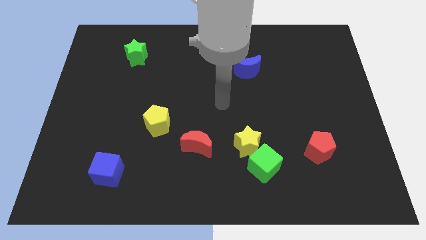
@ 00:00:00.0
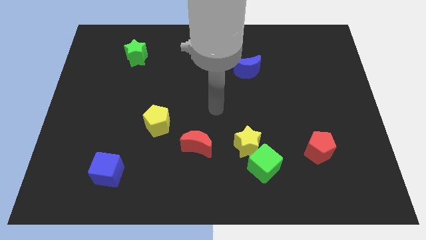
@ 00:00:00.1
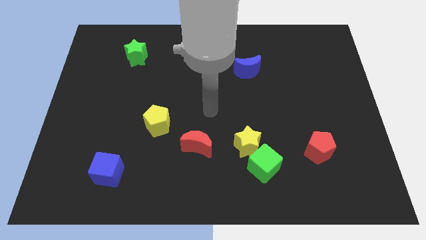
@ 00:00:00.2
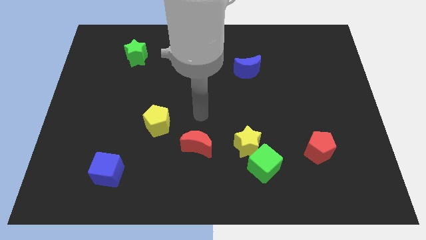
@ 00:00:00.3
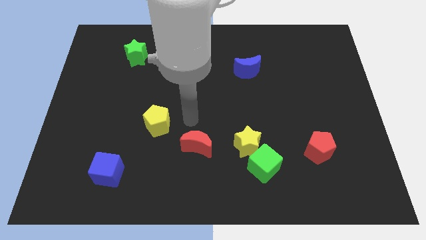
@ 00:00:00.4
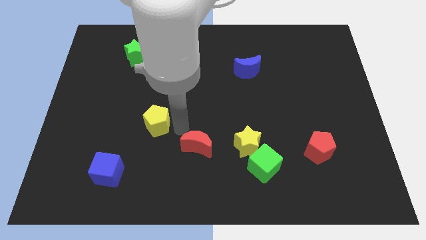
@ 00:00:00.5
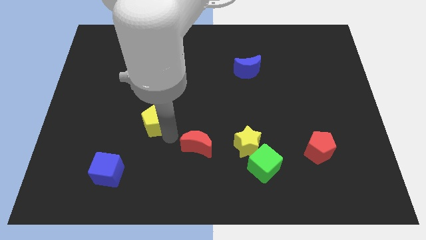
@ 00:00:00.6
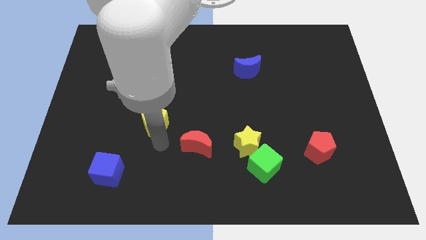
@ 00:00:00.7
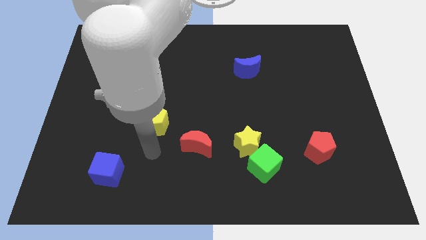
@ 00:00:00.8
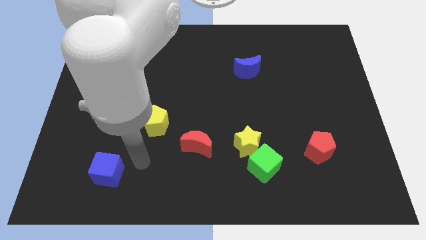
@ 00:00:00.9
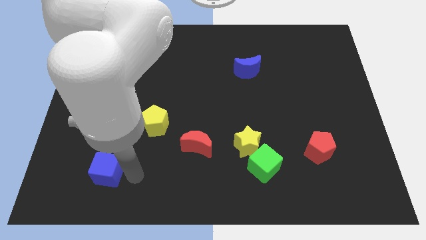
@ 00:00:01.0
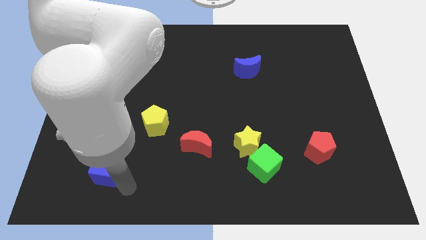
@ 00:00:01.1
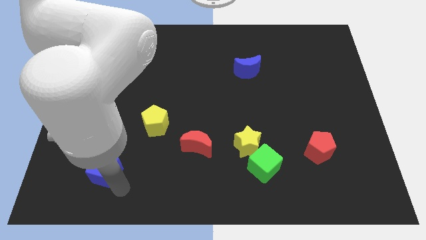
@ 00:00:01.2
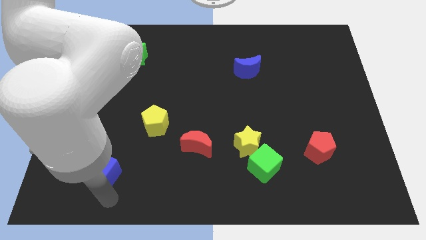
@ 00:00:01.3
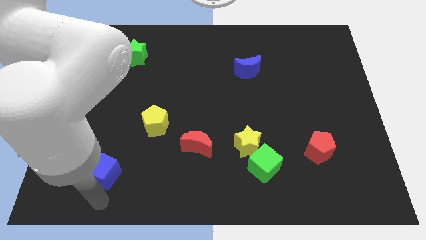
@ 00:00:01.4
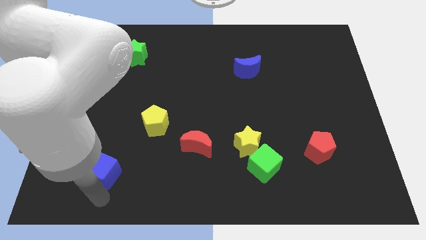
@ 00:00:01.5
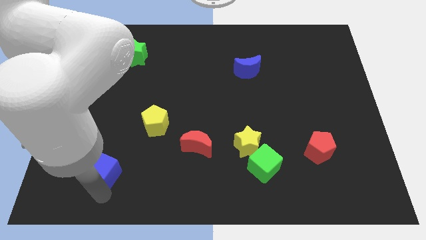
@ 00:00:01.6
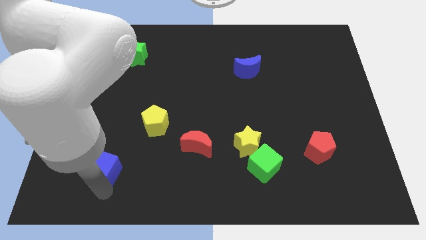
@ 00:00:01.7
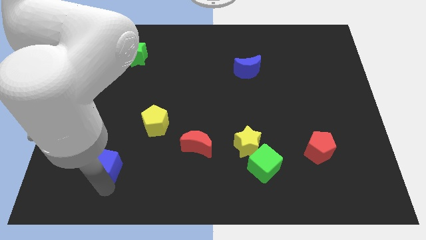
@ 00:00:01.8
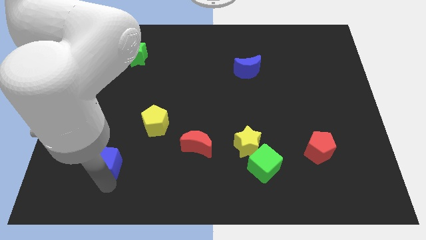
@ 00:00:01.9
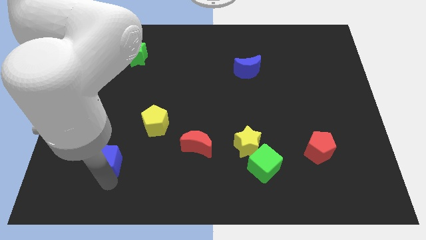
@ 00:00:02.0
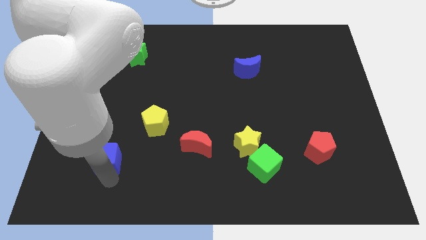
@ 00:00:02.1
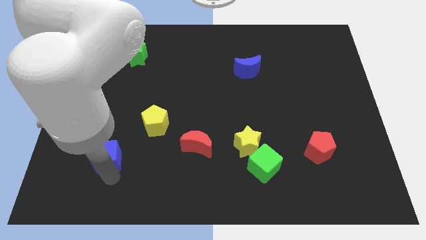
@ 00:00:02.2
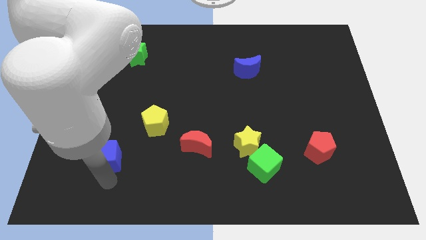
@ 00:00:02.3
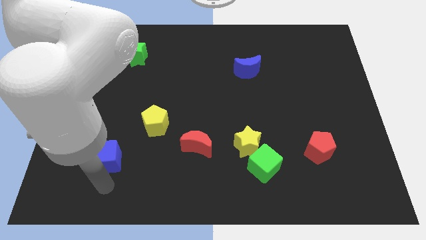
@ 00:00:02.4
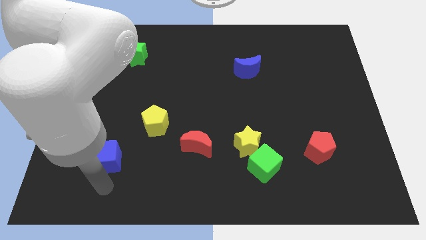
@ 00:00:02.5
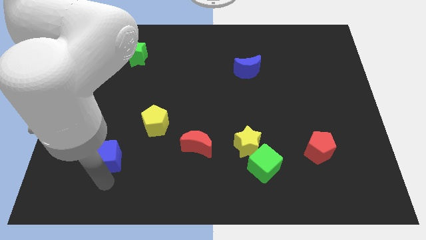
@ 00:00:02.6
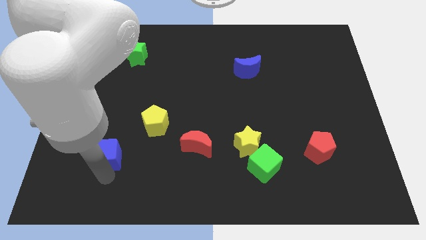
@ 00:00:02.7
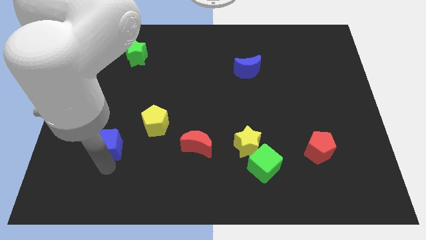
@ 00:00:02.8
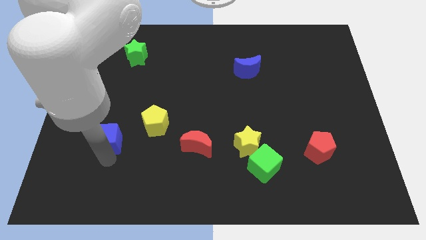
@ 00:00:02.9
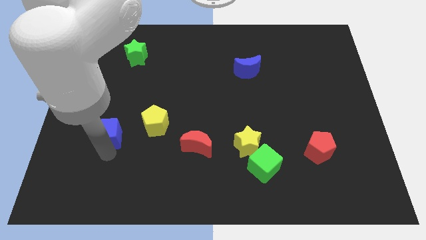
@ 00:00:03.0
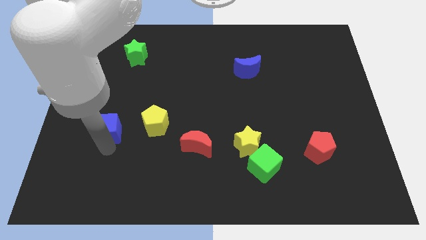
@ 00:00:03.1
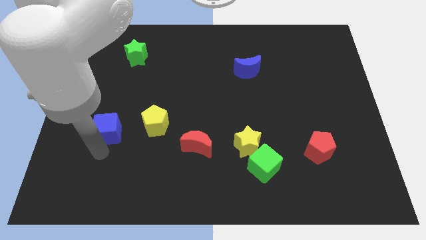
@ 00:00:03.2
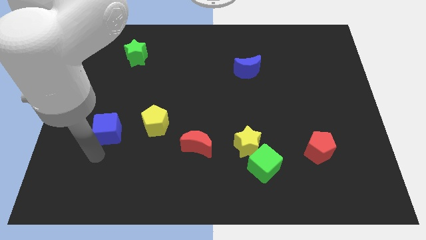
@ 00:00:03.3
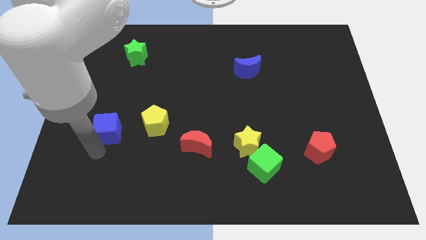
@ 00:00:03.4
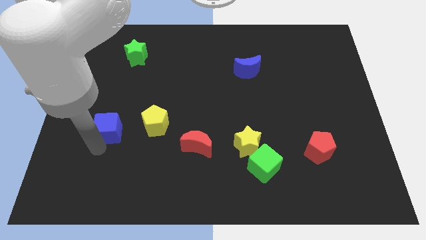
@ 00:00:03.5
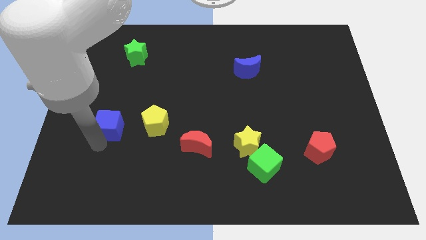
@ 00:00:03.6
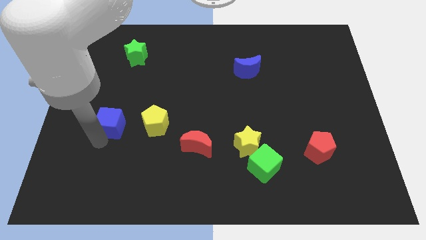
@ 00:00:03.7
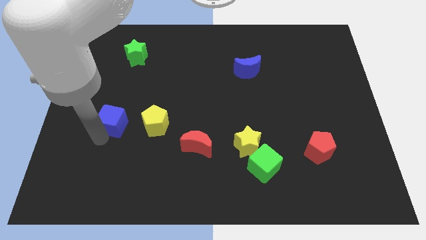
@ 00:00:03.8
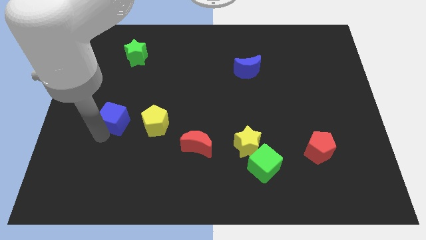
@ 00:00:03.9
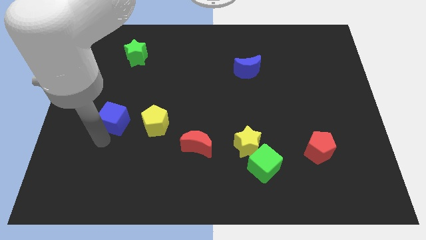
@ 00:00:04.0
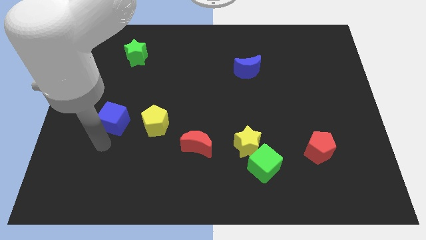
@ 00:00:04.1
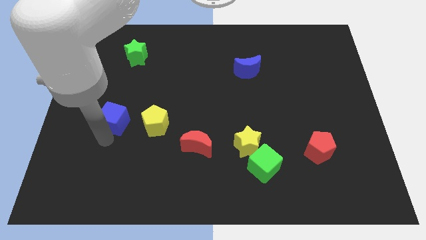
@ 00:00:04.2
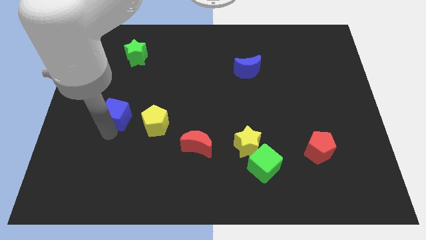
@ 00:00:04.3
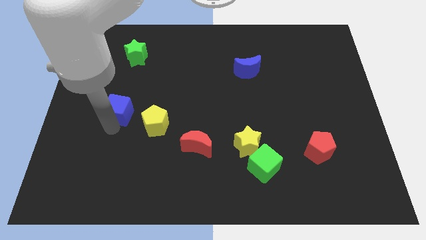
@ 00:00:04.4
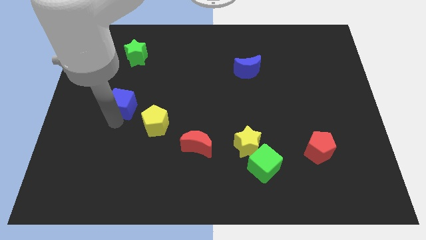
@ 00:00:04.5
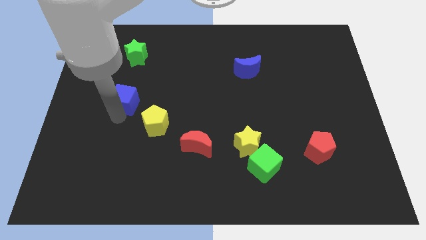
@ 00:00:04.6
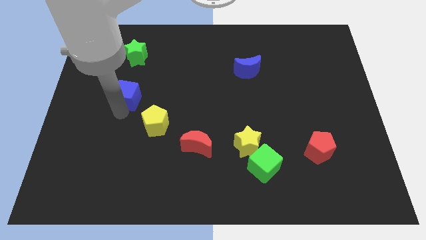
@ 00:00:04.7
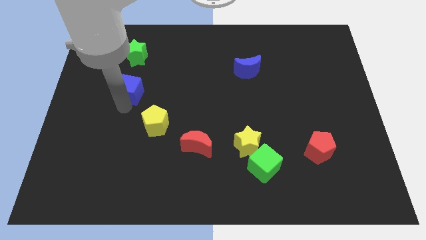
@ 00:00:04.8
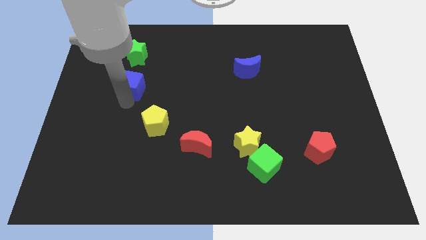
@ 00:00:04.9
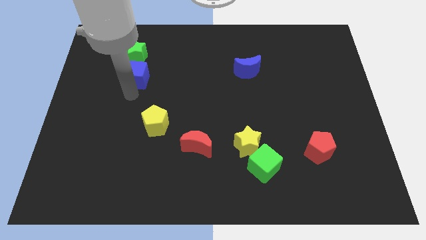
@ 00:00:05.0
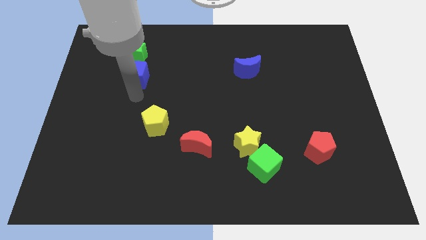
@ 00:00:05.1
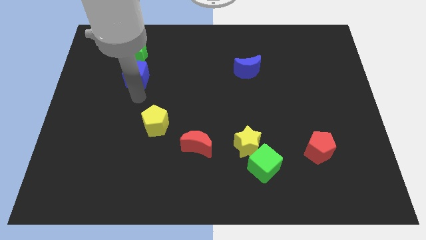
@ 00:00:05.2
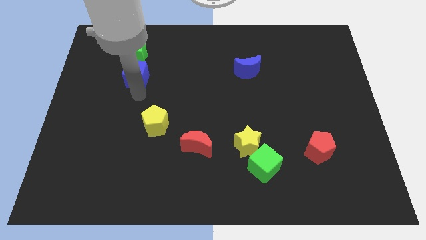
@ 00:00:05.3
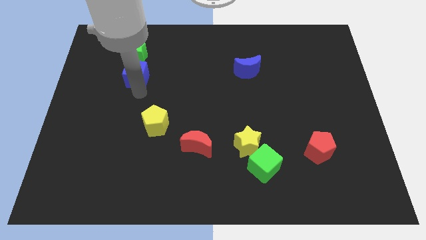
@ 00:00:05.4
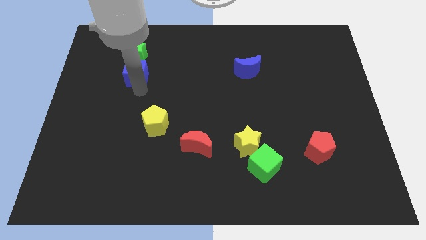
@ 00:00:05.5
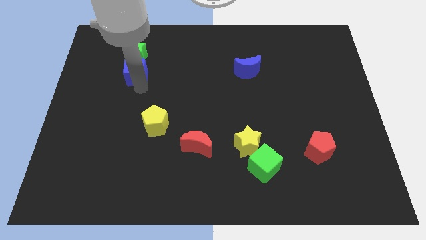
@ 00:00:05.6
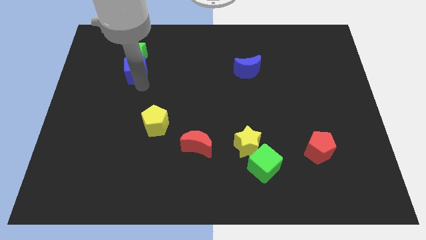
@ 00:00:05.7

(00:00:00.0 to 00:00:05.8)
push the blue cube towards the green star

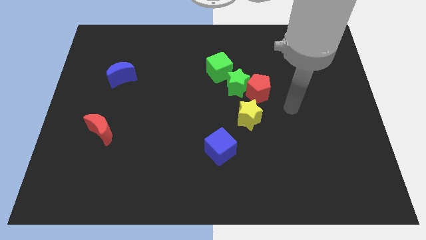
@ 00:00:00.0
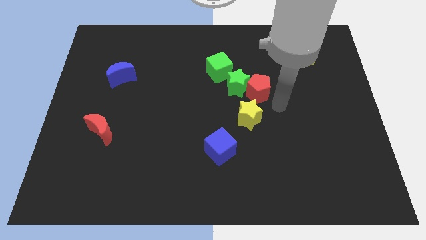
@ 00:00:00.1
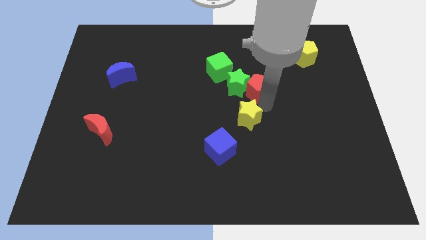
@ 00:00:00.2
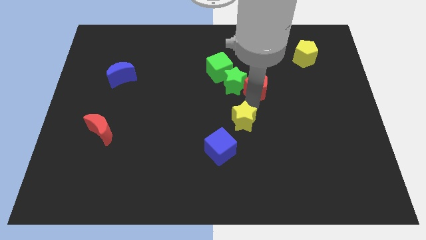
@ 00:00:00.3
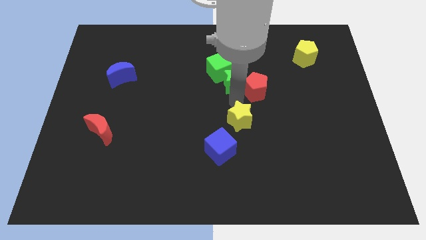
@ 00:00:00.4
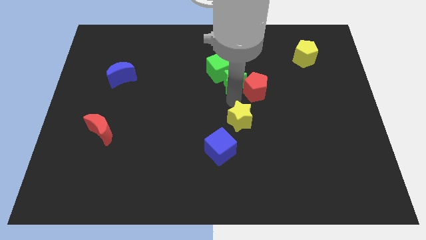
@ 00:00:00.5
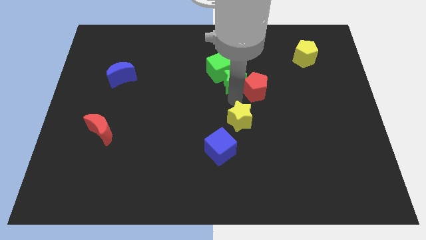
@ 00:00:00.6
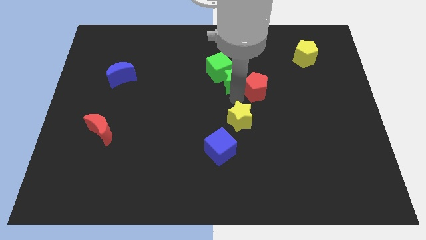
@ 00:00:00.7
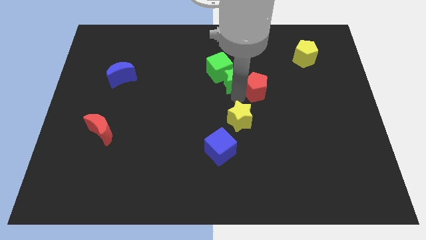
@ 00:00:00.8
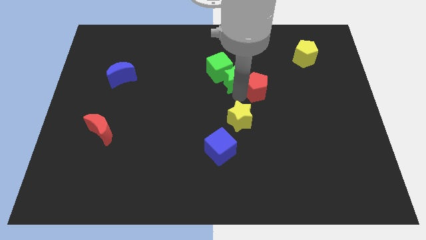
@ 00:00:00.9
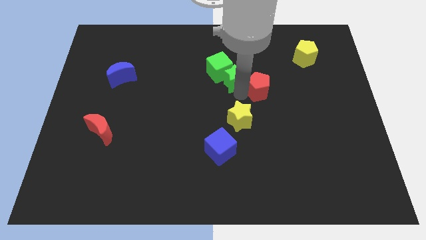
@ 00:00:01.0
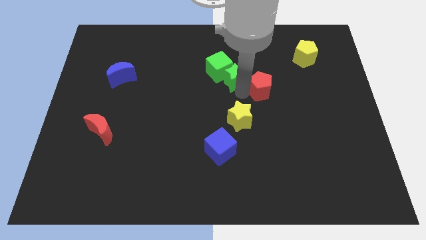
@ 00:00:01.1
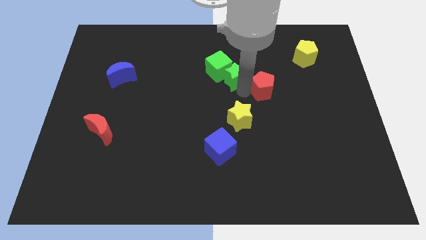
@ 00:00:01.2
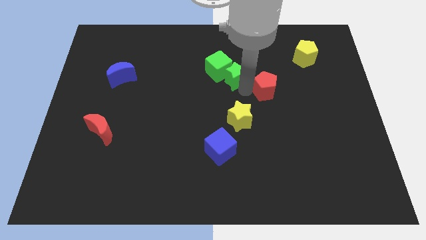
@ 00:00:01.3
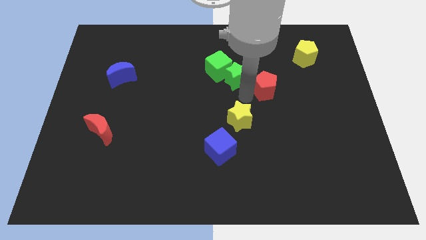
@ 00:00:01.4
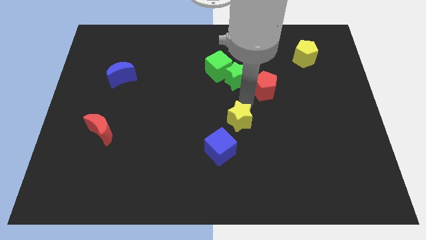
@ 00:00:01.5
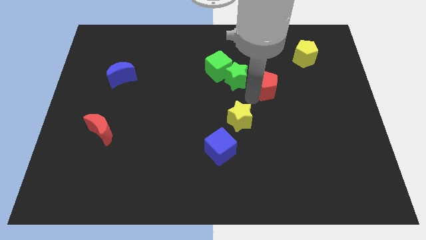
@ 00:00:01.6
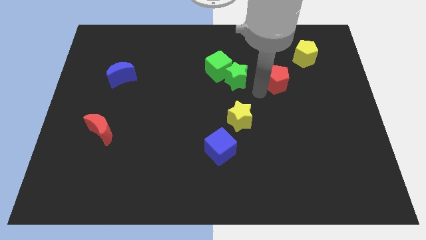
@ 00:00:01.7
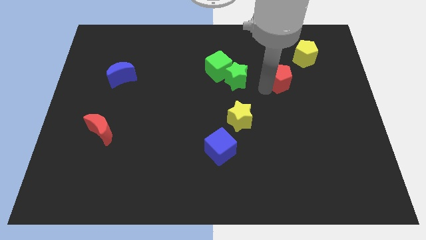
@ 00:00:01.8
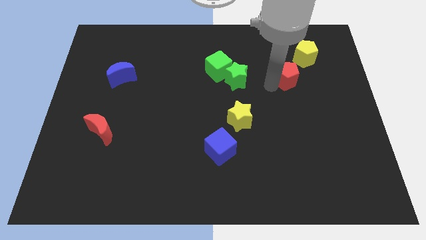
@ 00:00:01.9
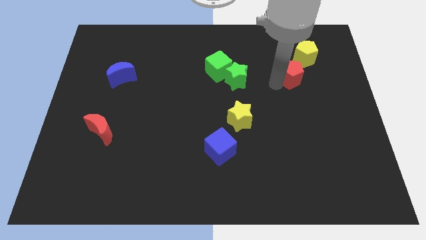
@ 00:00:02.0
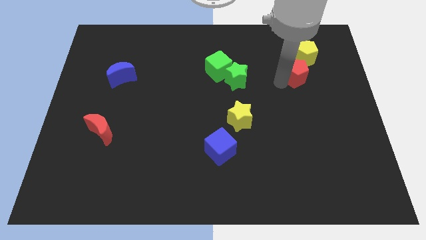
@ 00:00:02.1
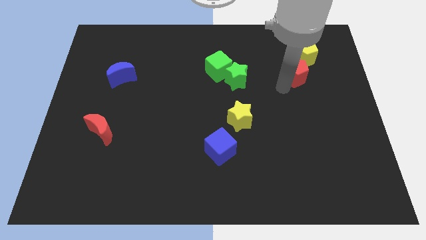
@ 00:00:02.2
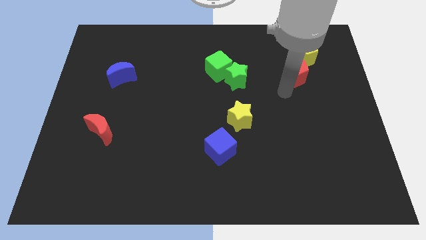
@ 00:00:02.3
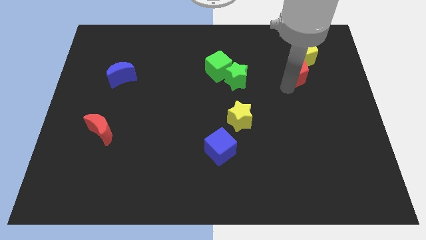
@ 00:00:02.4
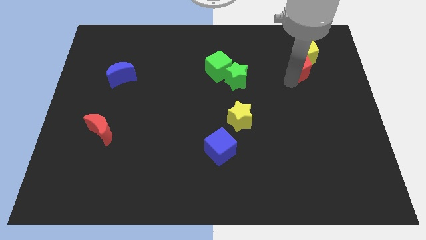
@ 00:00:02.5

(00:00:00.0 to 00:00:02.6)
move the red pentagon close to the yellow pentagon
